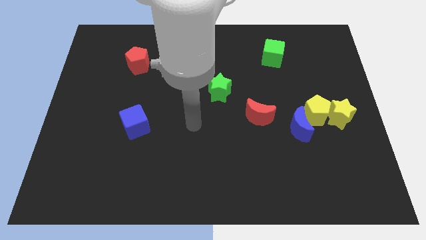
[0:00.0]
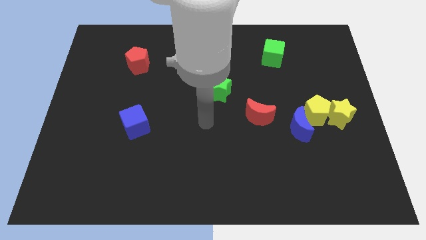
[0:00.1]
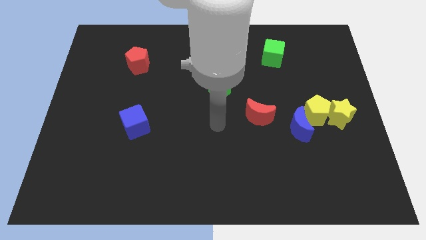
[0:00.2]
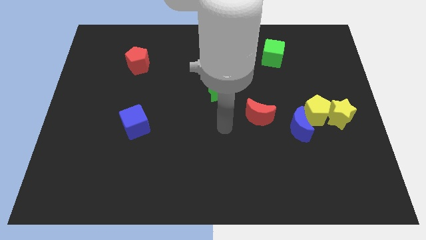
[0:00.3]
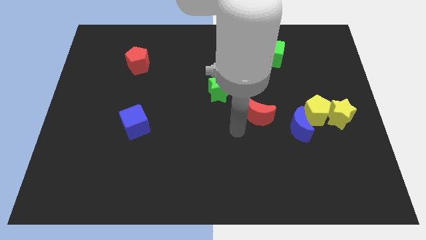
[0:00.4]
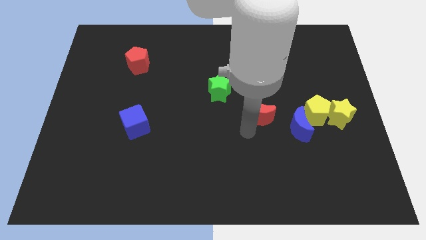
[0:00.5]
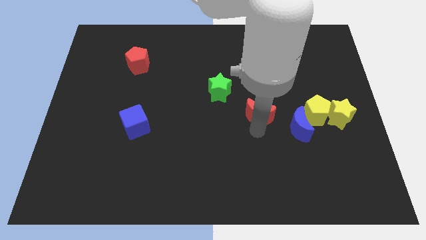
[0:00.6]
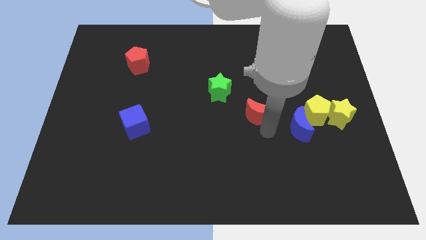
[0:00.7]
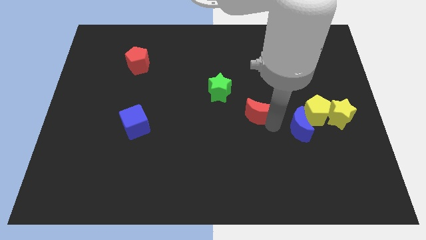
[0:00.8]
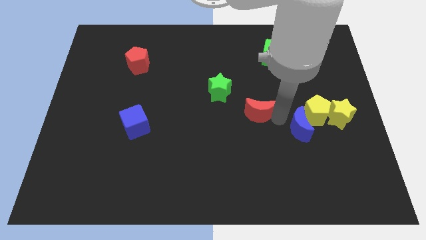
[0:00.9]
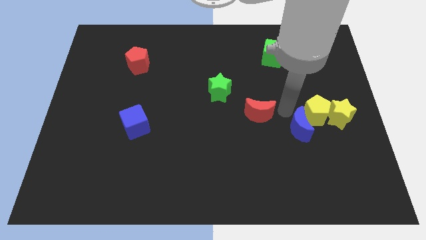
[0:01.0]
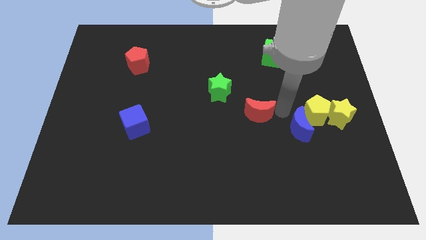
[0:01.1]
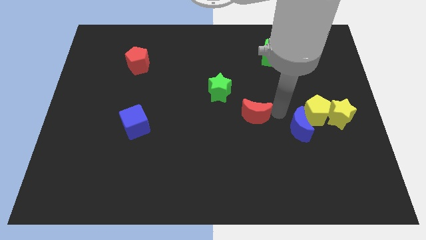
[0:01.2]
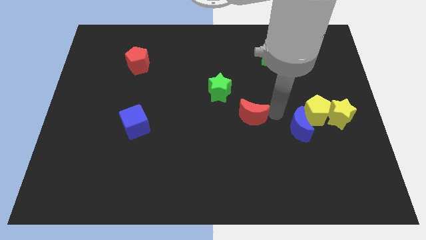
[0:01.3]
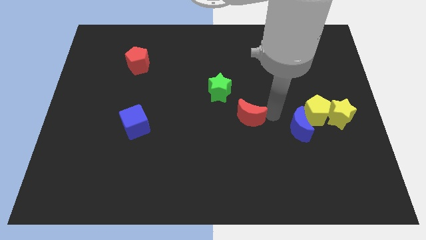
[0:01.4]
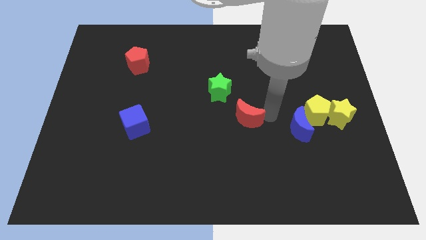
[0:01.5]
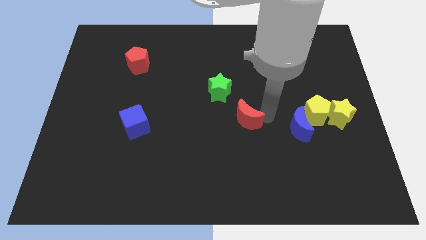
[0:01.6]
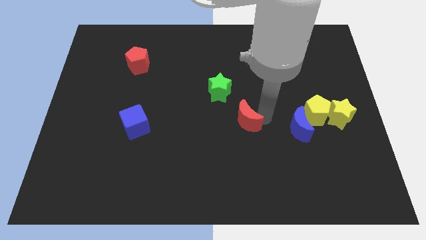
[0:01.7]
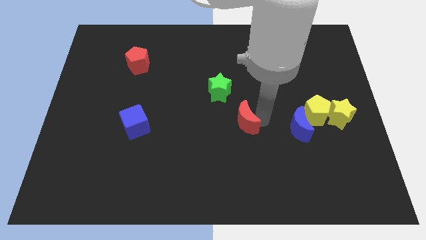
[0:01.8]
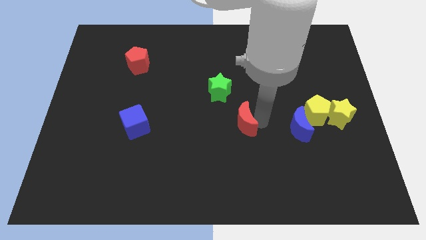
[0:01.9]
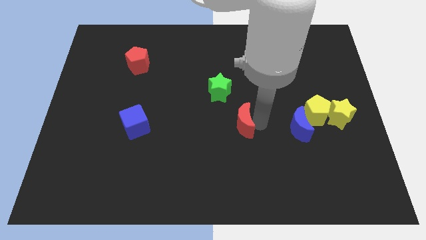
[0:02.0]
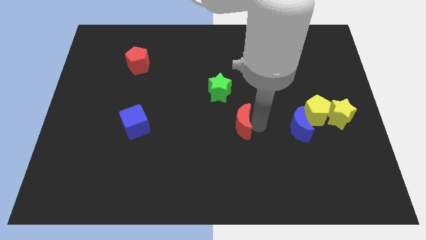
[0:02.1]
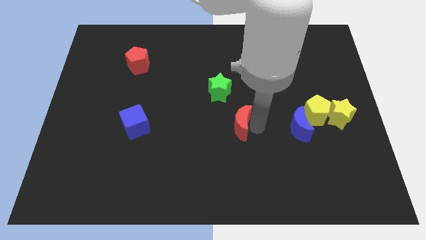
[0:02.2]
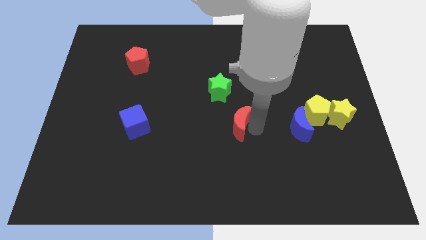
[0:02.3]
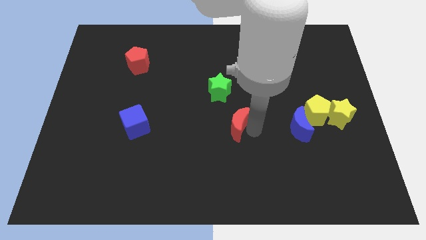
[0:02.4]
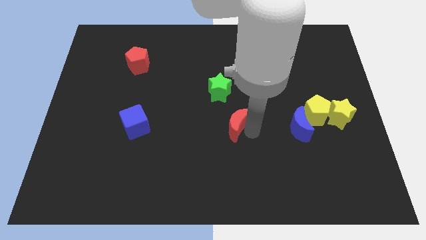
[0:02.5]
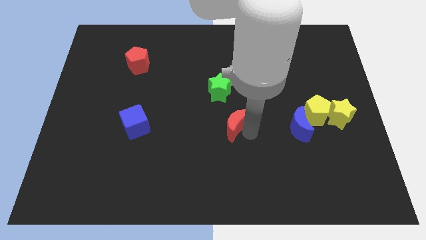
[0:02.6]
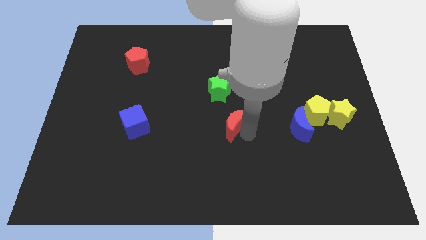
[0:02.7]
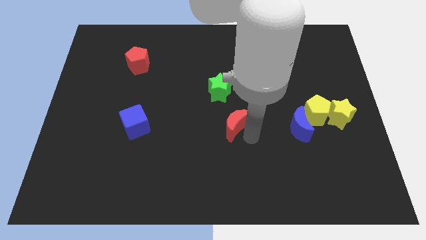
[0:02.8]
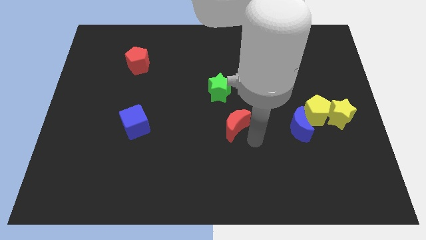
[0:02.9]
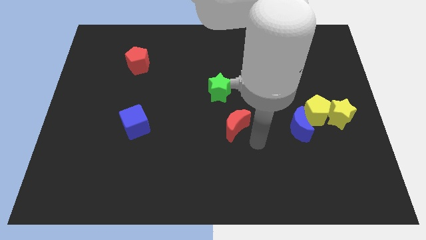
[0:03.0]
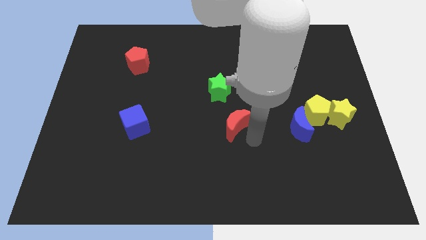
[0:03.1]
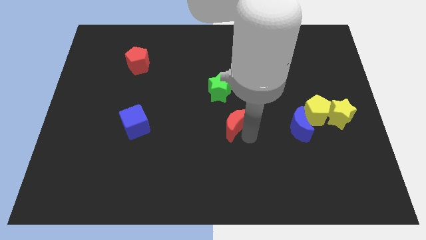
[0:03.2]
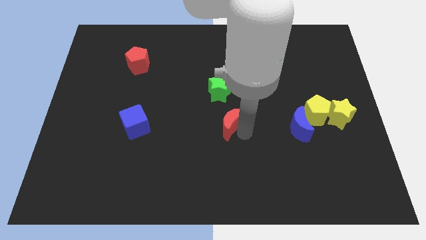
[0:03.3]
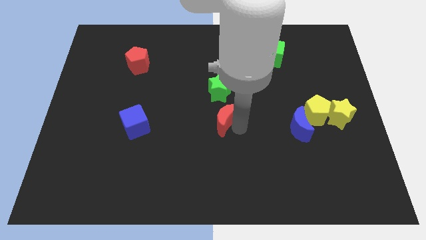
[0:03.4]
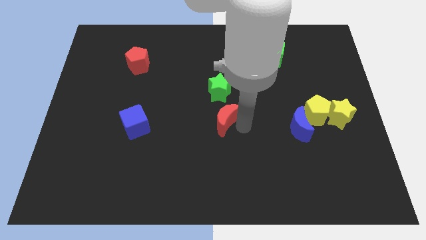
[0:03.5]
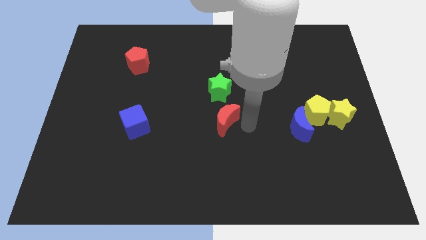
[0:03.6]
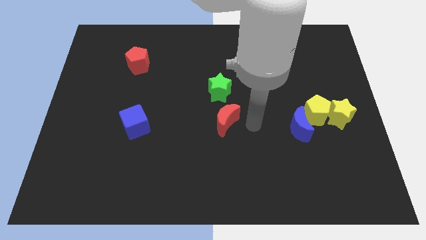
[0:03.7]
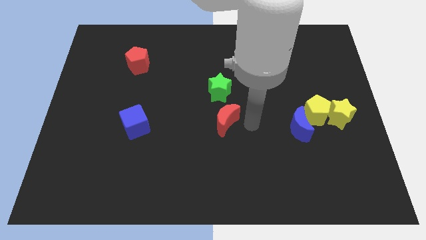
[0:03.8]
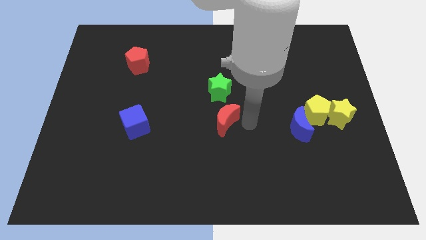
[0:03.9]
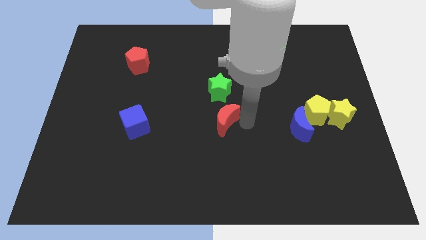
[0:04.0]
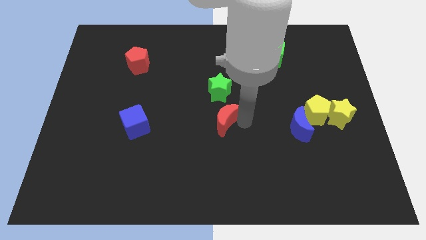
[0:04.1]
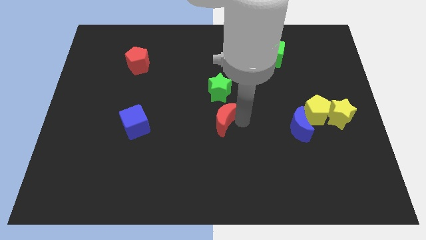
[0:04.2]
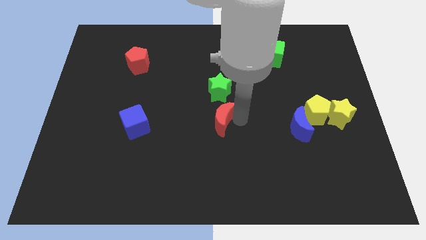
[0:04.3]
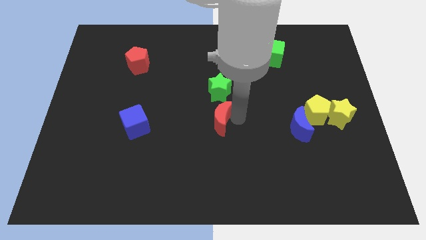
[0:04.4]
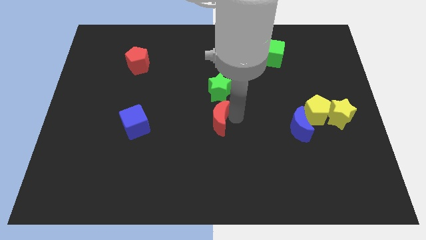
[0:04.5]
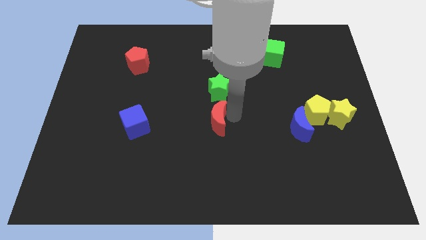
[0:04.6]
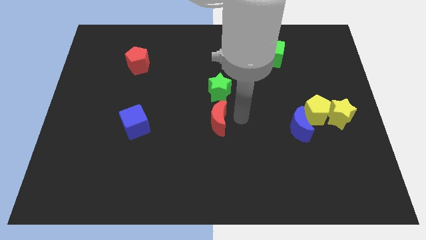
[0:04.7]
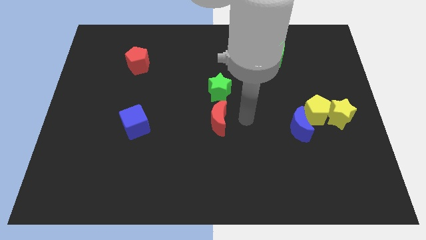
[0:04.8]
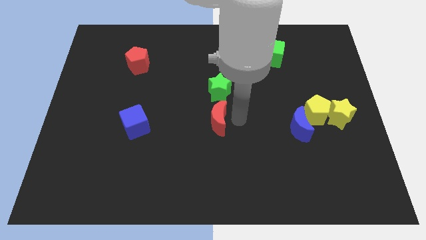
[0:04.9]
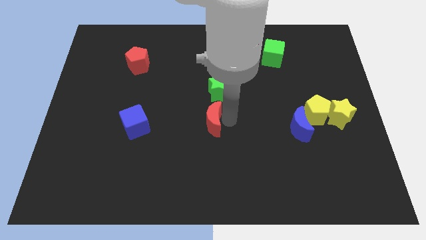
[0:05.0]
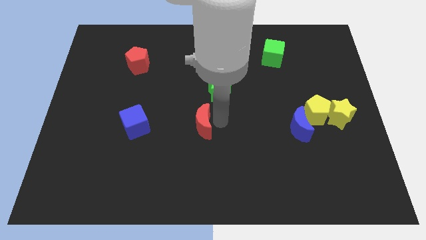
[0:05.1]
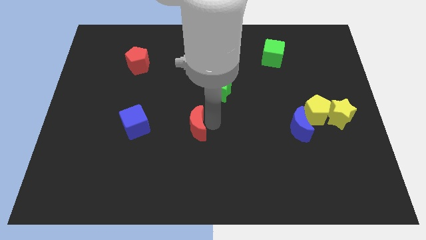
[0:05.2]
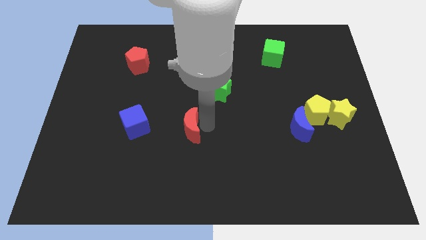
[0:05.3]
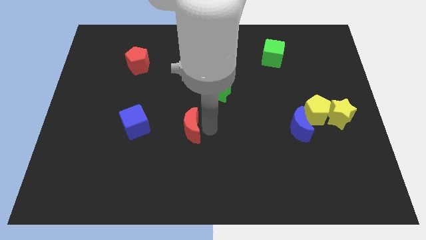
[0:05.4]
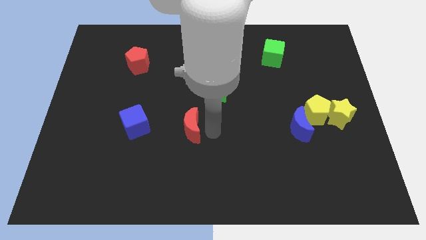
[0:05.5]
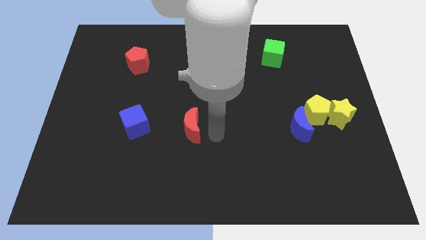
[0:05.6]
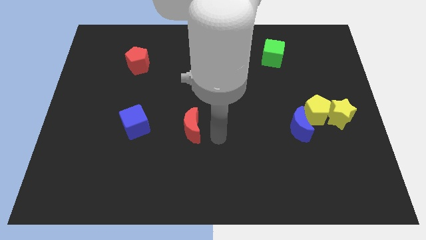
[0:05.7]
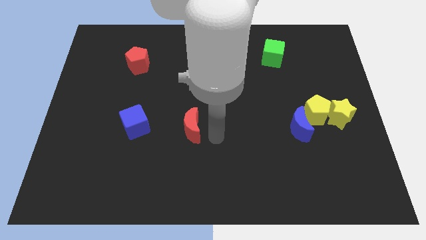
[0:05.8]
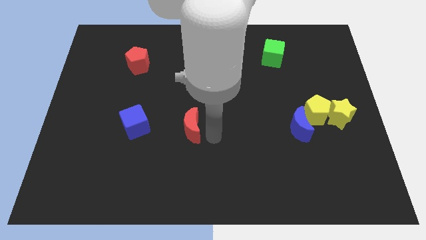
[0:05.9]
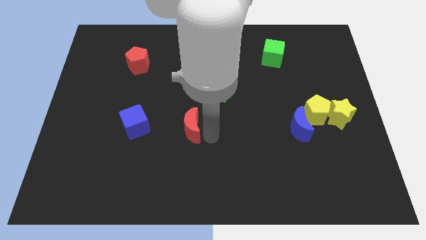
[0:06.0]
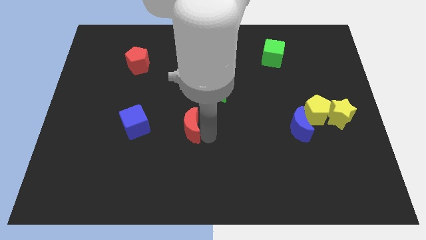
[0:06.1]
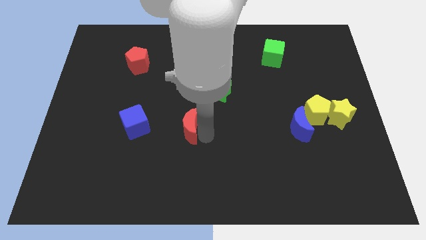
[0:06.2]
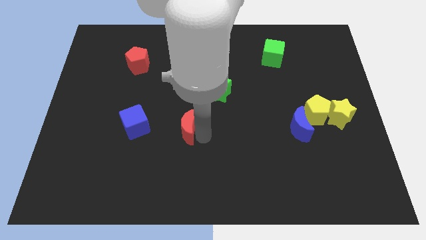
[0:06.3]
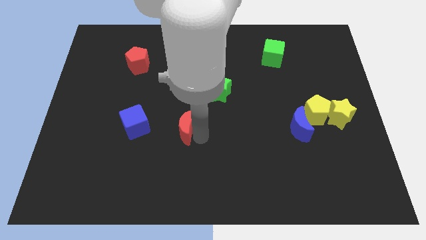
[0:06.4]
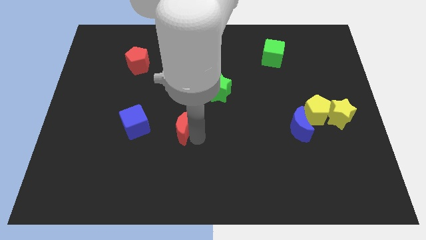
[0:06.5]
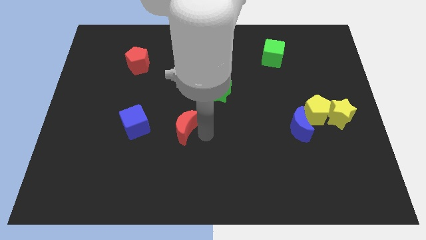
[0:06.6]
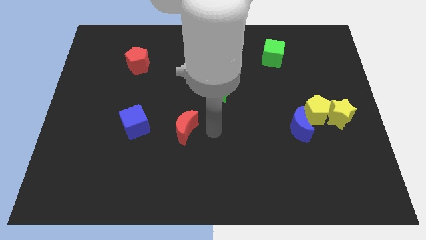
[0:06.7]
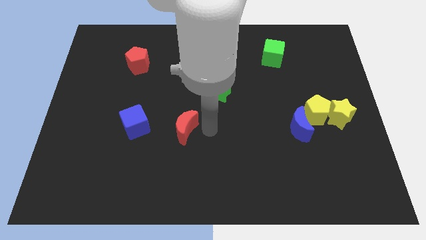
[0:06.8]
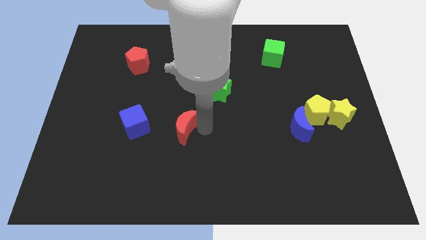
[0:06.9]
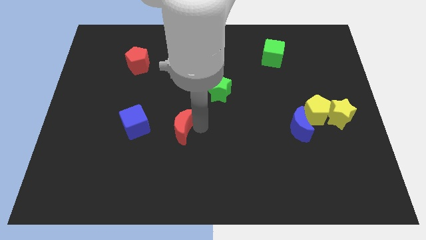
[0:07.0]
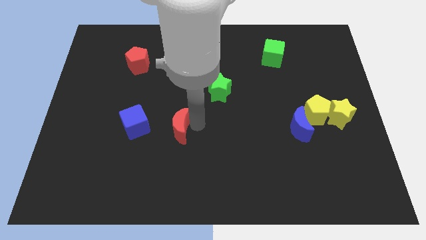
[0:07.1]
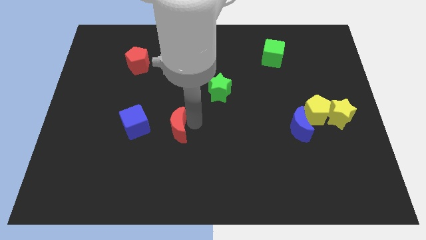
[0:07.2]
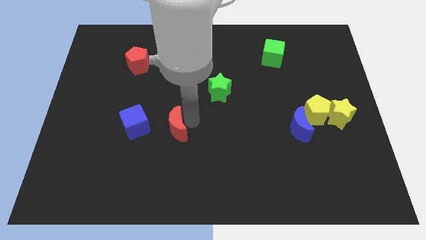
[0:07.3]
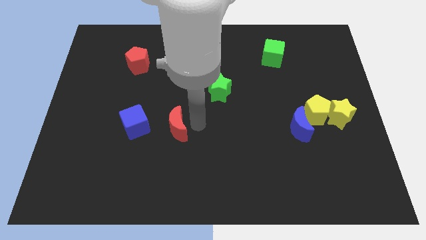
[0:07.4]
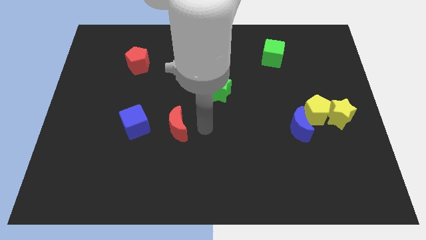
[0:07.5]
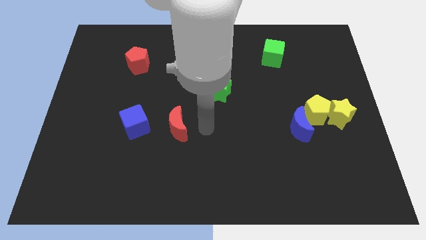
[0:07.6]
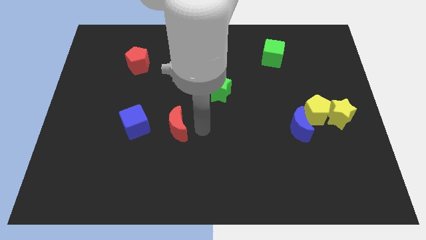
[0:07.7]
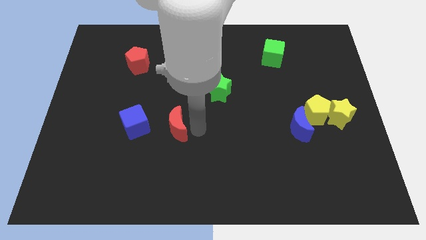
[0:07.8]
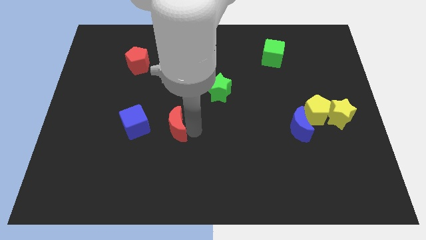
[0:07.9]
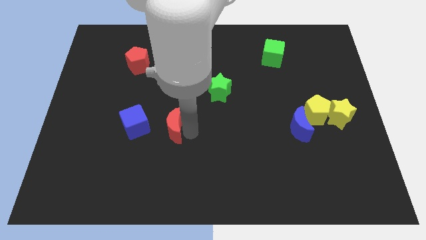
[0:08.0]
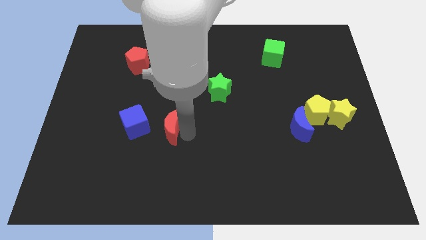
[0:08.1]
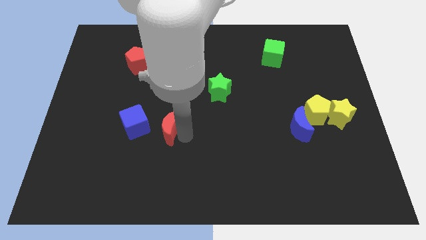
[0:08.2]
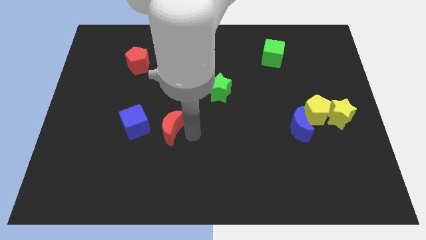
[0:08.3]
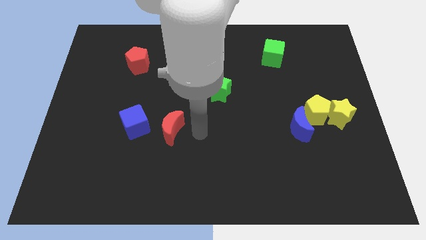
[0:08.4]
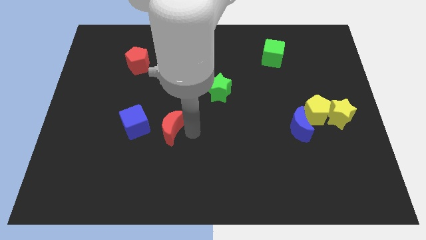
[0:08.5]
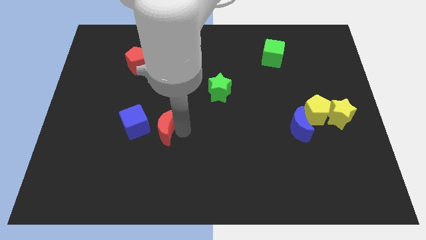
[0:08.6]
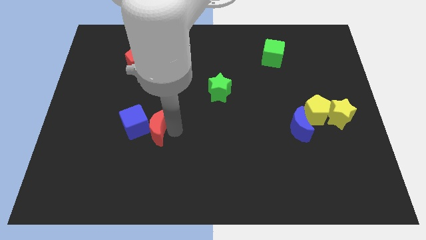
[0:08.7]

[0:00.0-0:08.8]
move the red moon towards the blue cube
